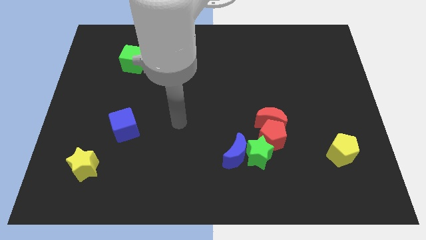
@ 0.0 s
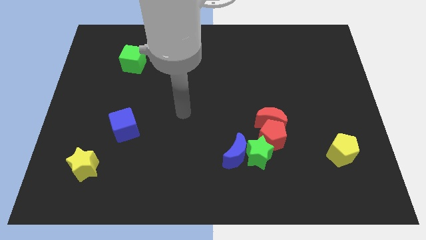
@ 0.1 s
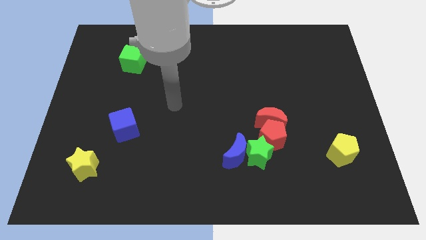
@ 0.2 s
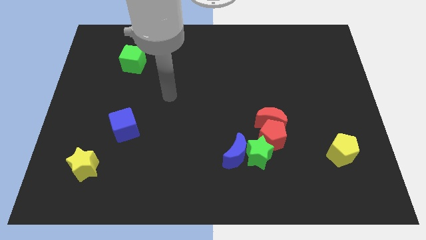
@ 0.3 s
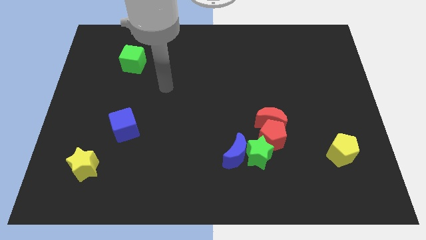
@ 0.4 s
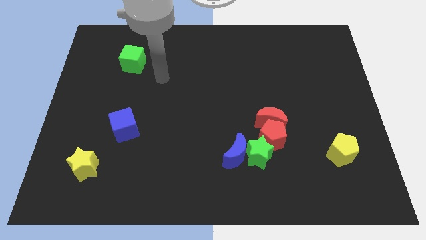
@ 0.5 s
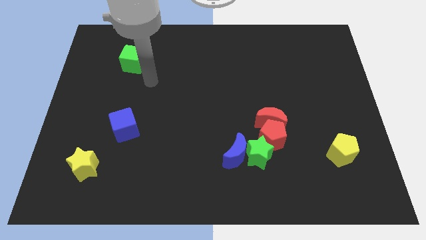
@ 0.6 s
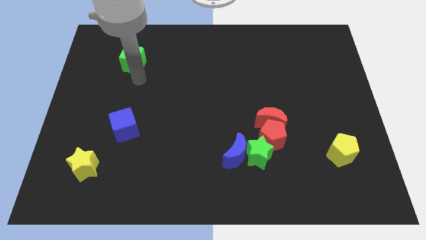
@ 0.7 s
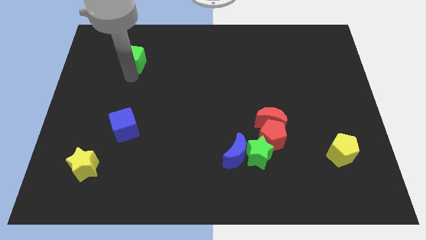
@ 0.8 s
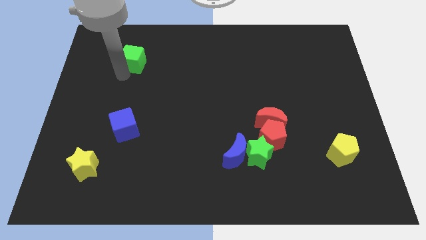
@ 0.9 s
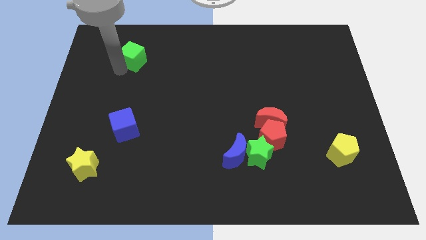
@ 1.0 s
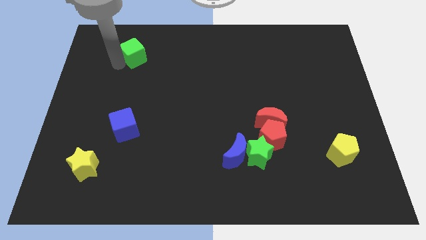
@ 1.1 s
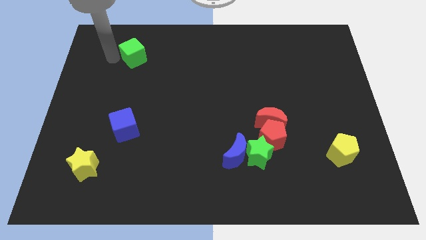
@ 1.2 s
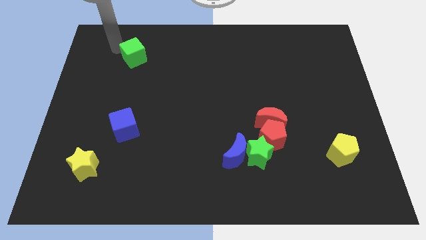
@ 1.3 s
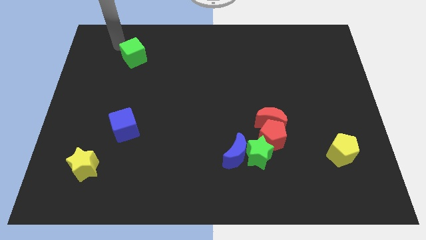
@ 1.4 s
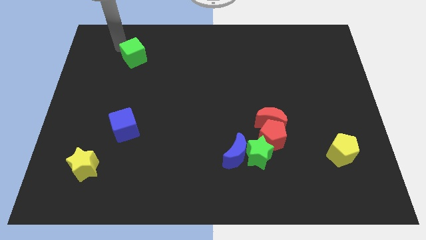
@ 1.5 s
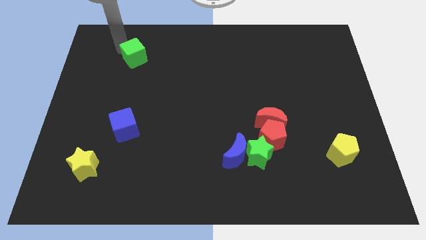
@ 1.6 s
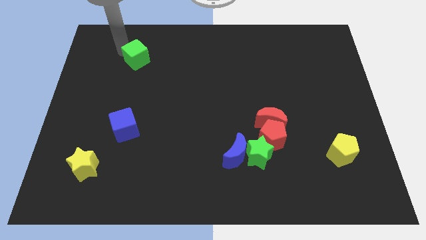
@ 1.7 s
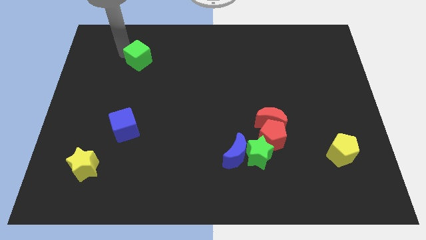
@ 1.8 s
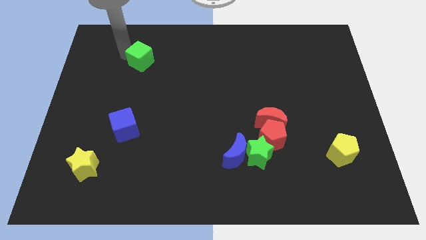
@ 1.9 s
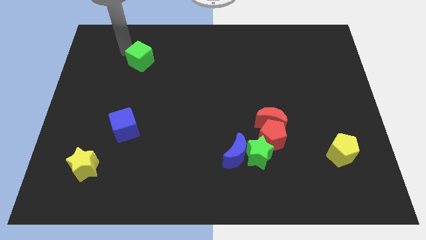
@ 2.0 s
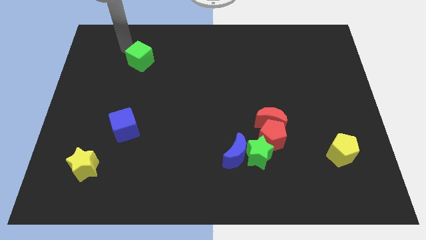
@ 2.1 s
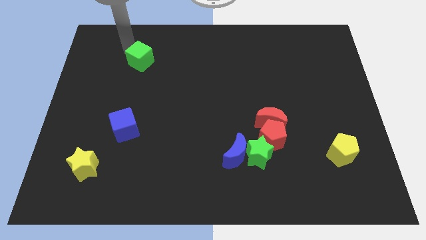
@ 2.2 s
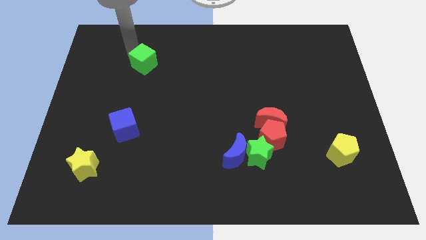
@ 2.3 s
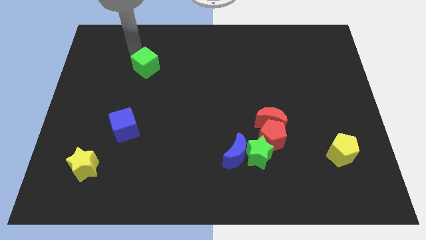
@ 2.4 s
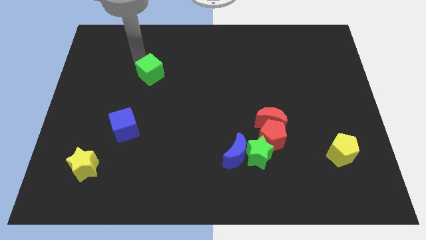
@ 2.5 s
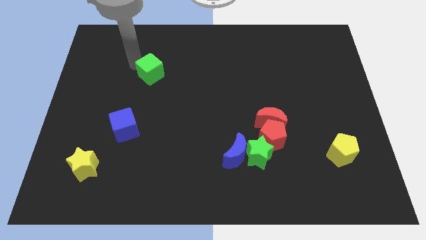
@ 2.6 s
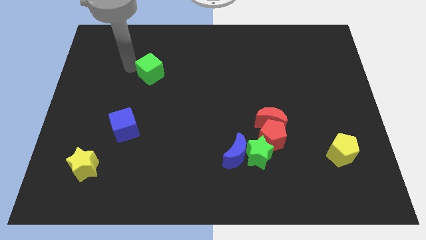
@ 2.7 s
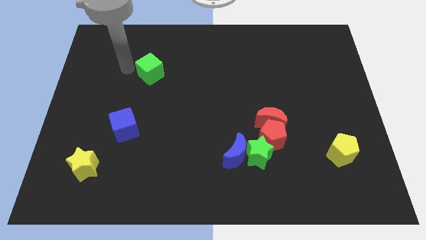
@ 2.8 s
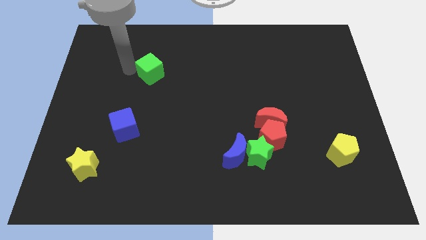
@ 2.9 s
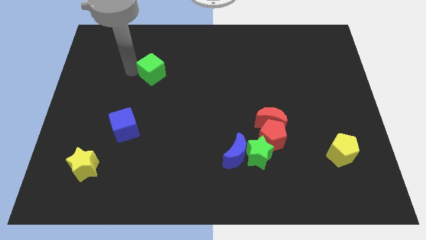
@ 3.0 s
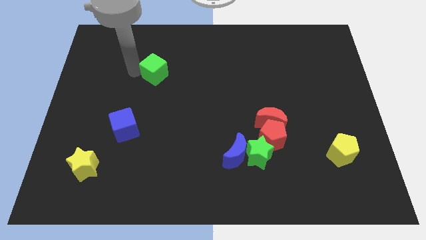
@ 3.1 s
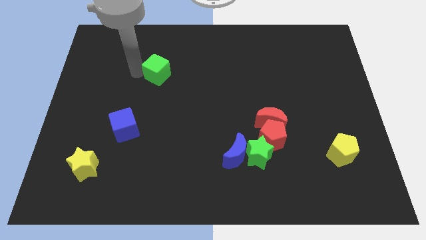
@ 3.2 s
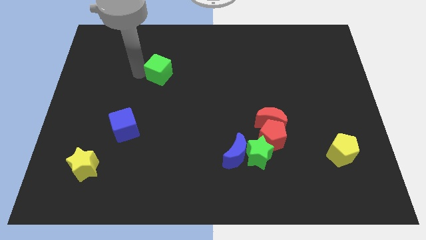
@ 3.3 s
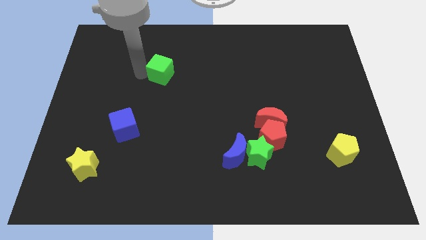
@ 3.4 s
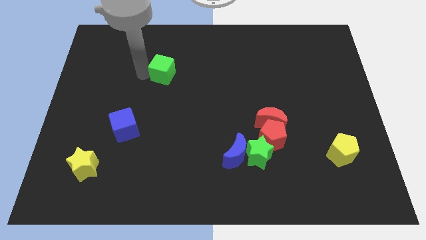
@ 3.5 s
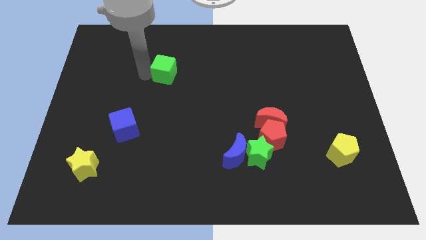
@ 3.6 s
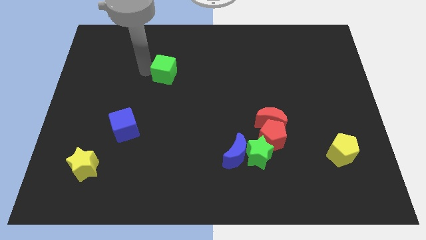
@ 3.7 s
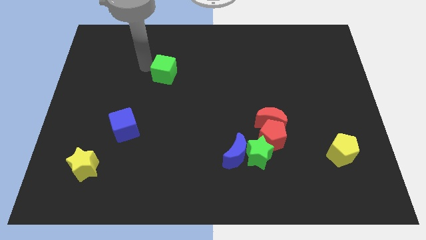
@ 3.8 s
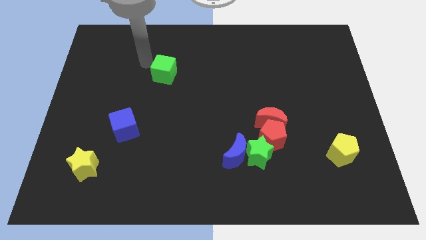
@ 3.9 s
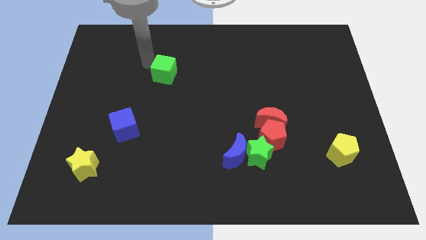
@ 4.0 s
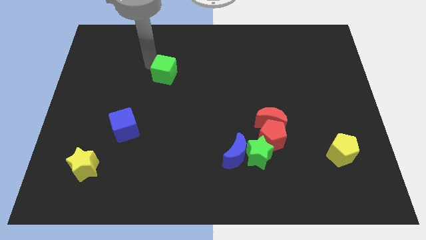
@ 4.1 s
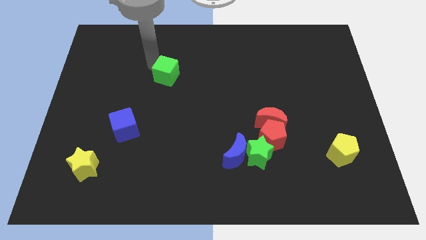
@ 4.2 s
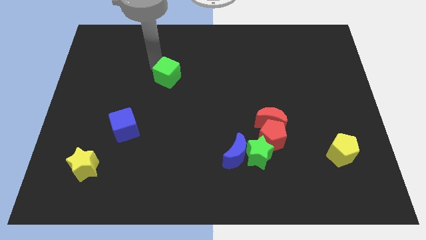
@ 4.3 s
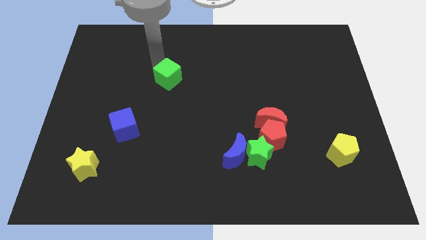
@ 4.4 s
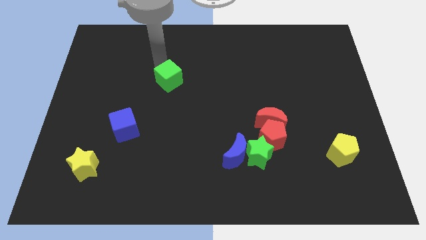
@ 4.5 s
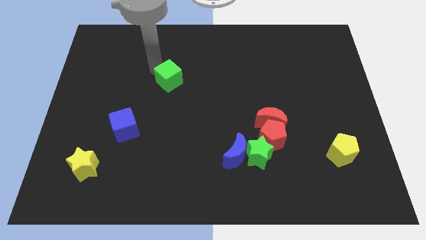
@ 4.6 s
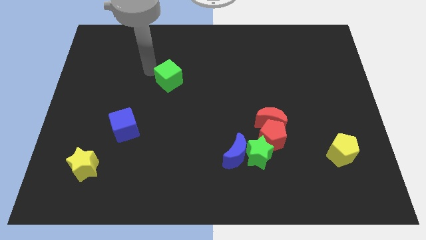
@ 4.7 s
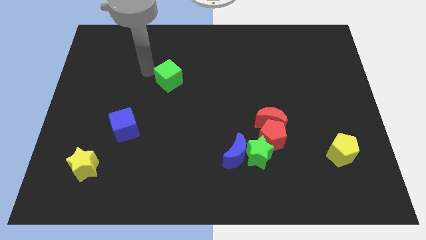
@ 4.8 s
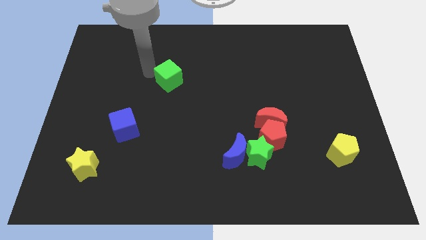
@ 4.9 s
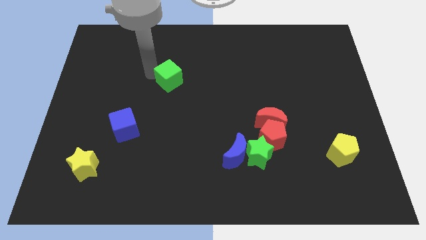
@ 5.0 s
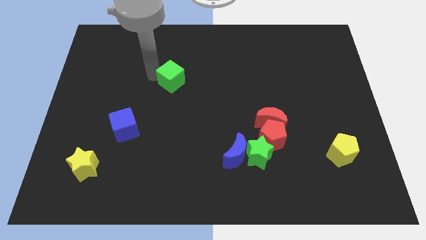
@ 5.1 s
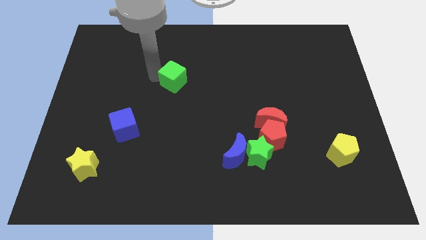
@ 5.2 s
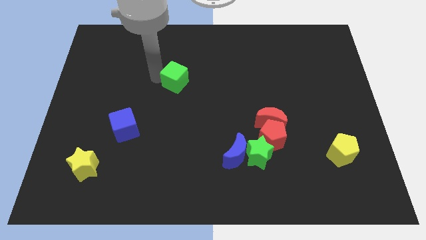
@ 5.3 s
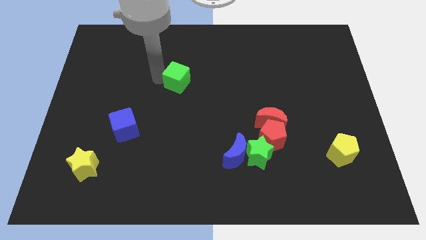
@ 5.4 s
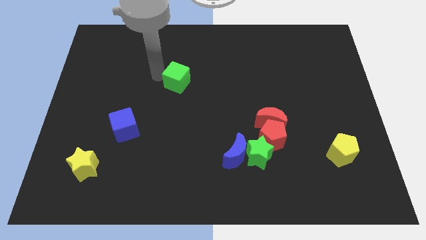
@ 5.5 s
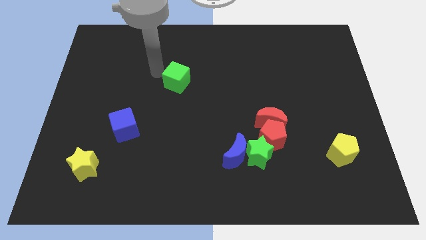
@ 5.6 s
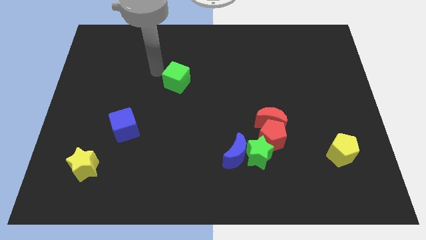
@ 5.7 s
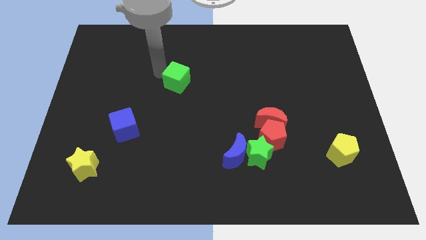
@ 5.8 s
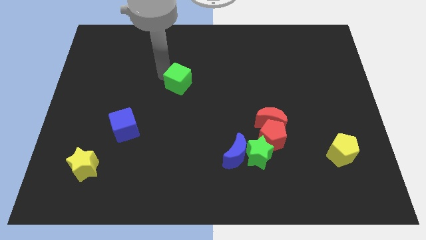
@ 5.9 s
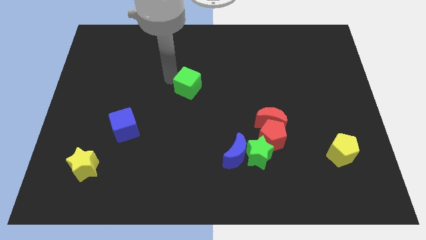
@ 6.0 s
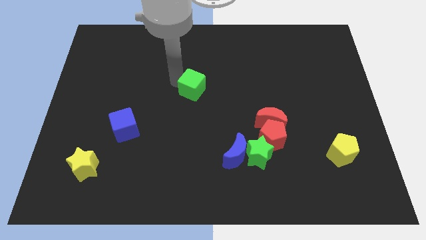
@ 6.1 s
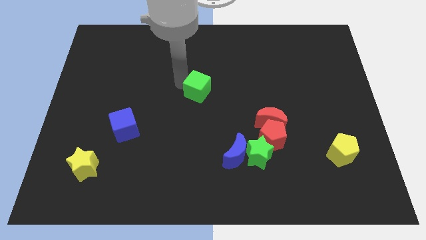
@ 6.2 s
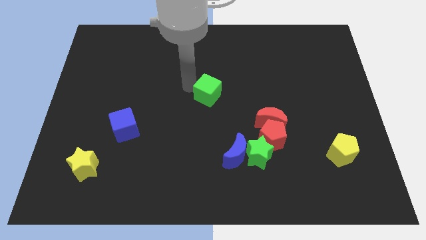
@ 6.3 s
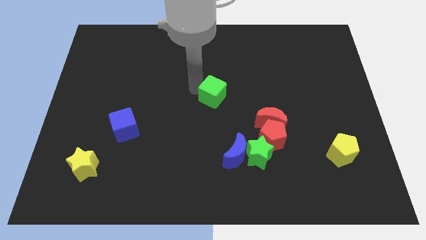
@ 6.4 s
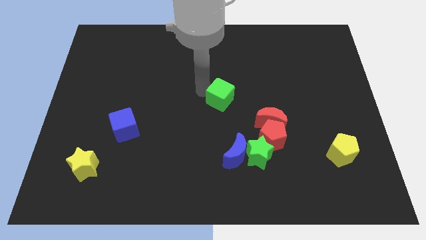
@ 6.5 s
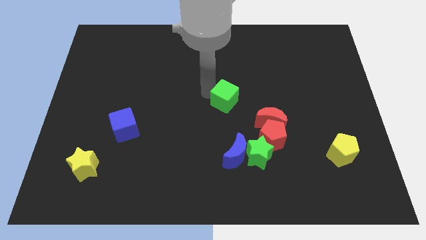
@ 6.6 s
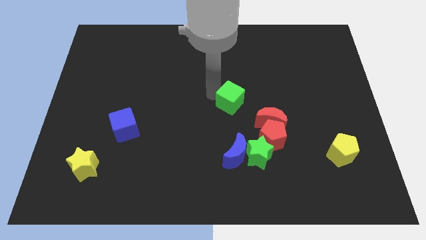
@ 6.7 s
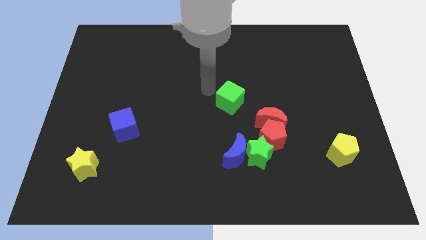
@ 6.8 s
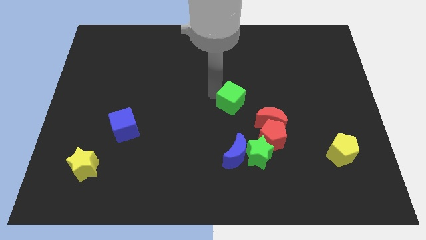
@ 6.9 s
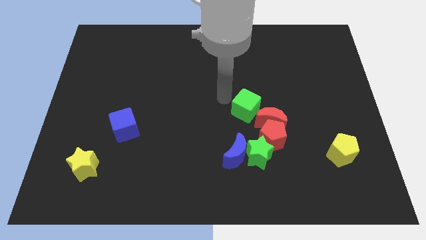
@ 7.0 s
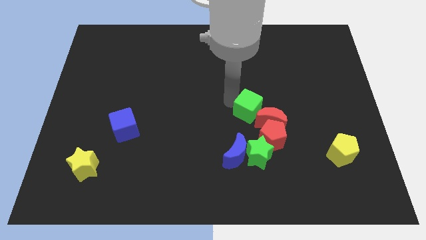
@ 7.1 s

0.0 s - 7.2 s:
move the green cube next to the red moon

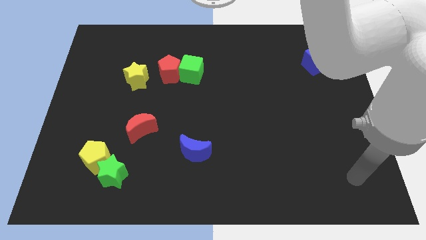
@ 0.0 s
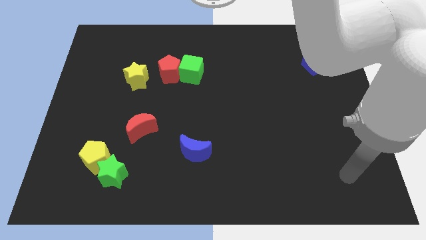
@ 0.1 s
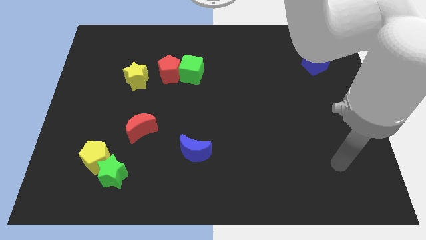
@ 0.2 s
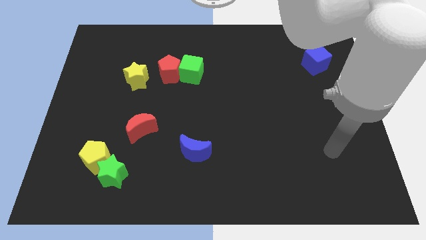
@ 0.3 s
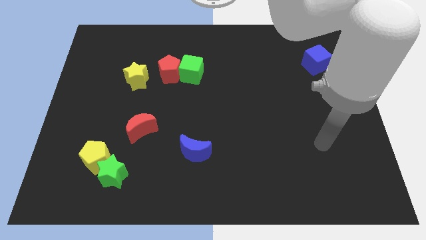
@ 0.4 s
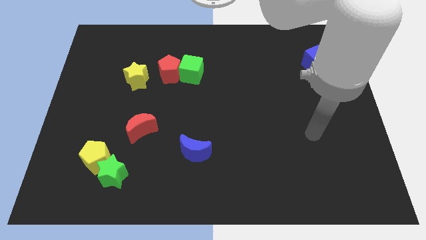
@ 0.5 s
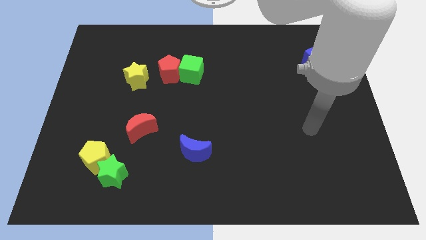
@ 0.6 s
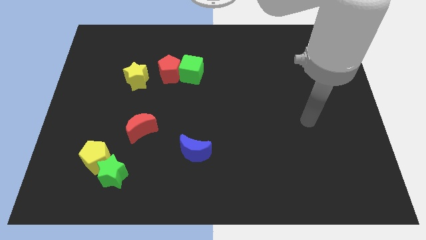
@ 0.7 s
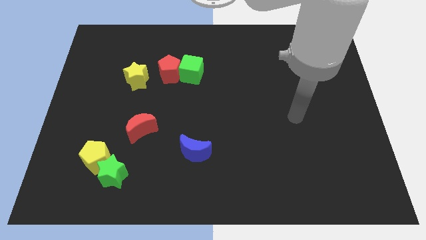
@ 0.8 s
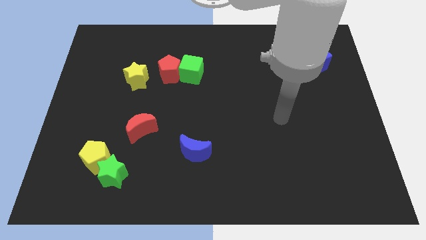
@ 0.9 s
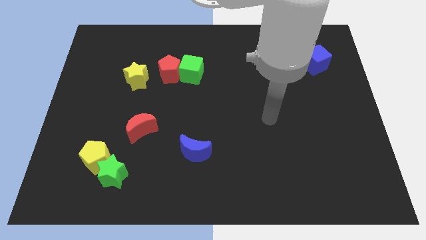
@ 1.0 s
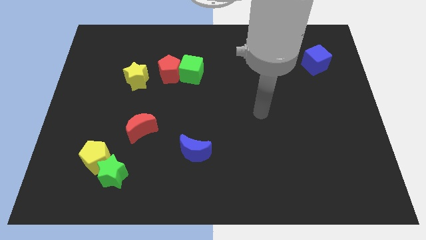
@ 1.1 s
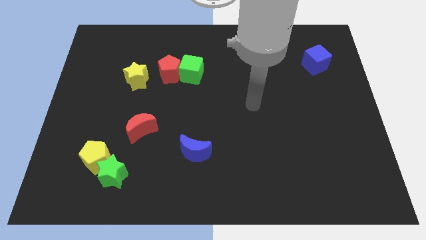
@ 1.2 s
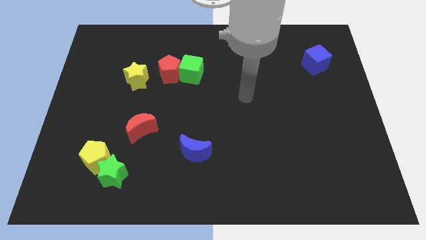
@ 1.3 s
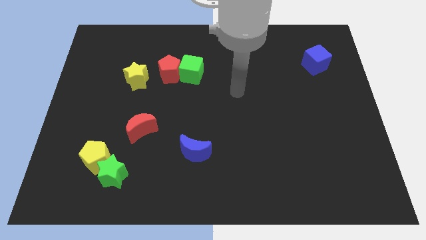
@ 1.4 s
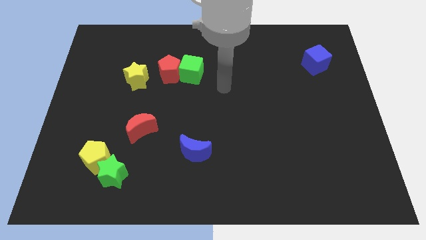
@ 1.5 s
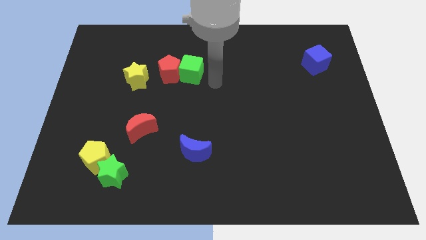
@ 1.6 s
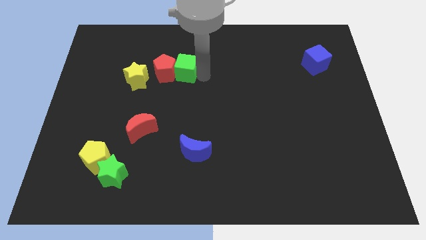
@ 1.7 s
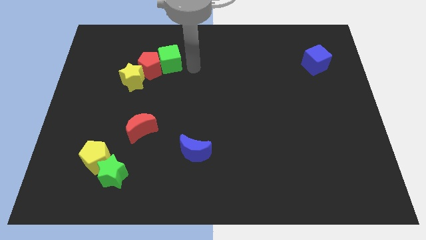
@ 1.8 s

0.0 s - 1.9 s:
push the red pentagon towards the yellow star
